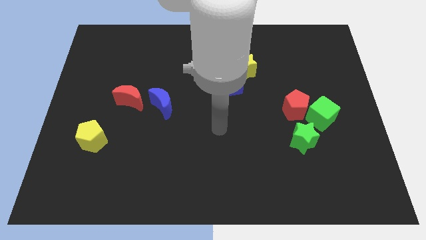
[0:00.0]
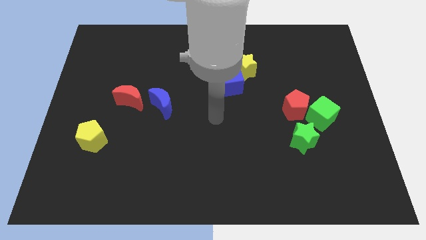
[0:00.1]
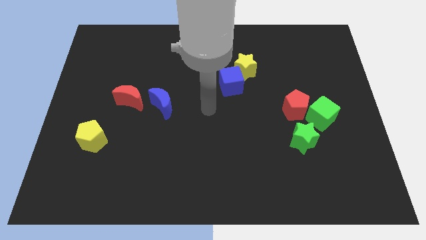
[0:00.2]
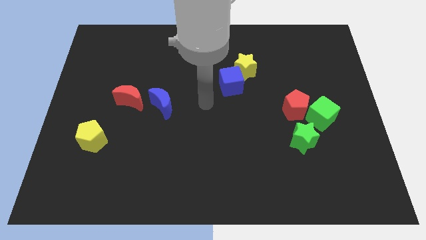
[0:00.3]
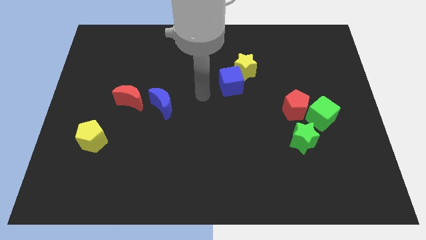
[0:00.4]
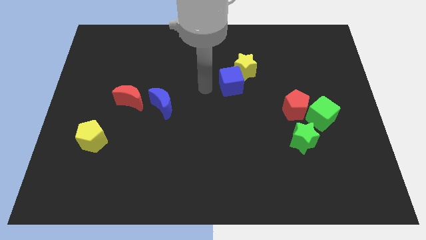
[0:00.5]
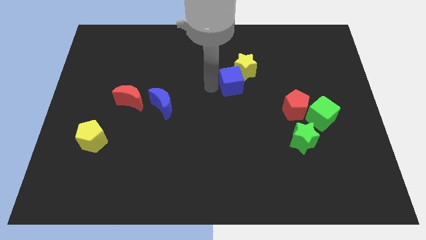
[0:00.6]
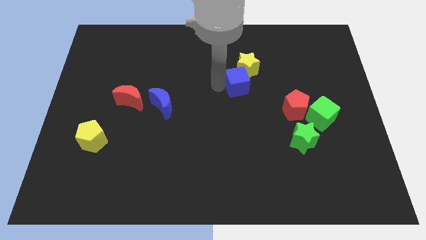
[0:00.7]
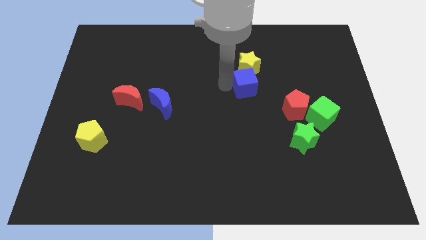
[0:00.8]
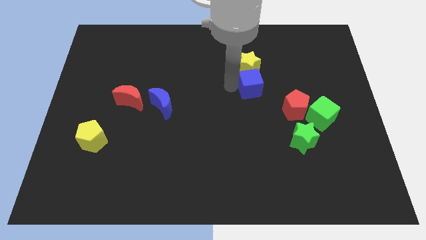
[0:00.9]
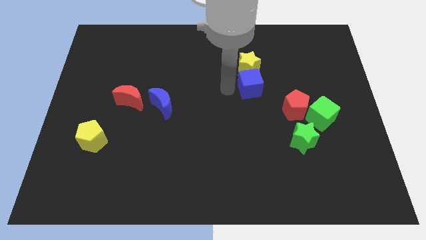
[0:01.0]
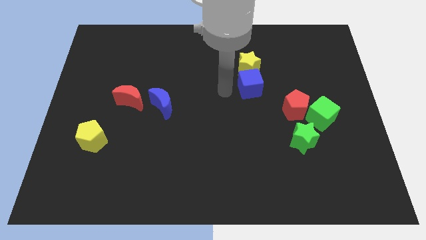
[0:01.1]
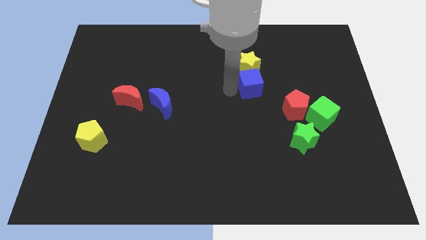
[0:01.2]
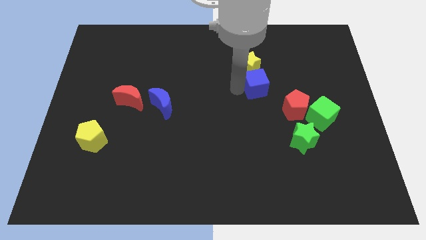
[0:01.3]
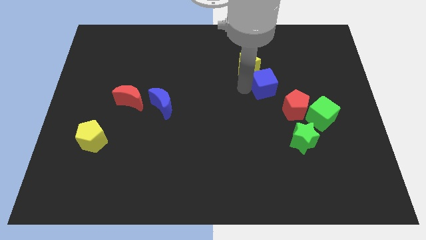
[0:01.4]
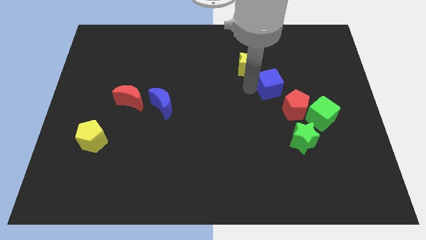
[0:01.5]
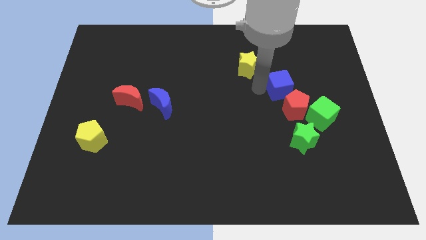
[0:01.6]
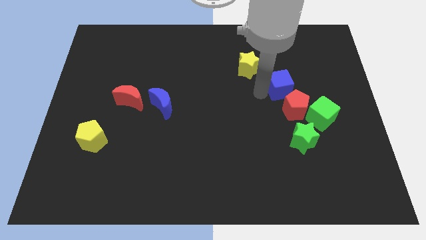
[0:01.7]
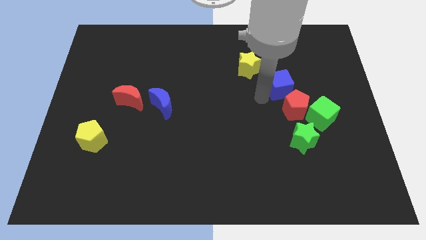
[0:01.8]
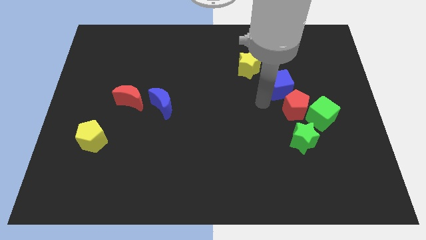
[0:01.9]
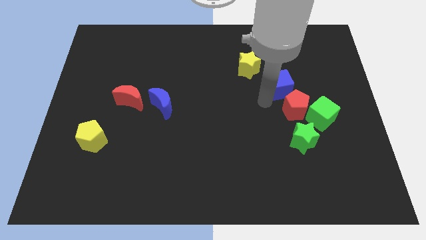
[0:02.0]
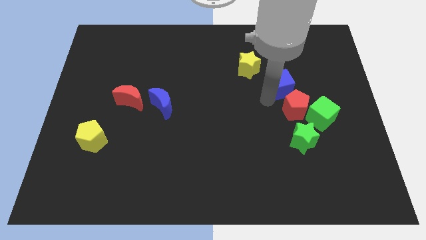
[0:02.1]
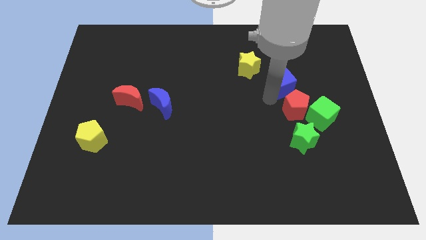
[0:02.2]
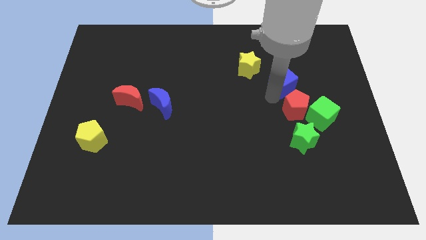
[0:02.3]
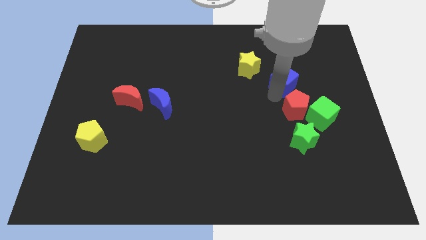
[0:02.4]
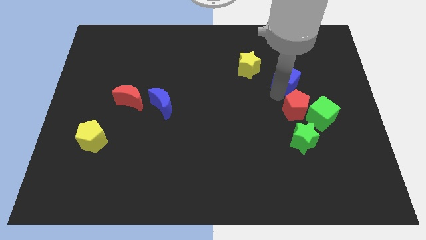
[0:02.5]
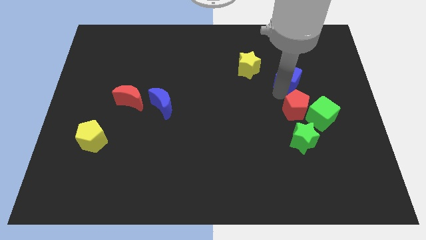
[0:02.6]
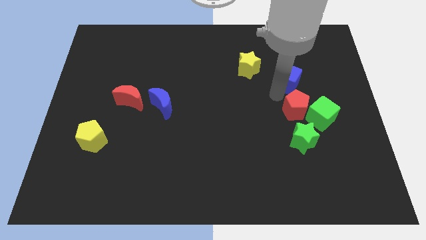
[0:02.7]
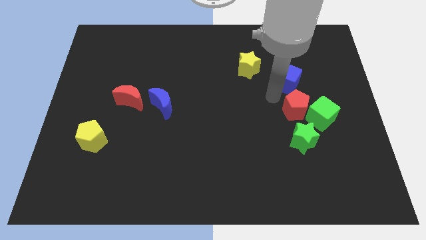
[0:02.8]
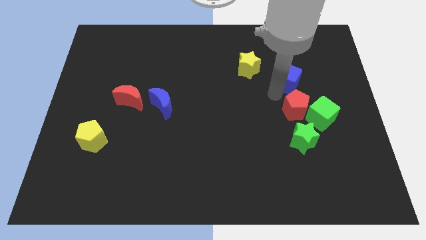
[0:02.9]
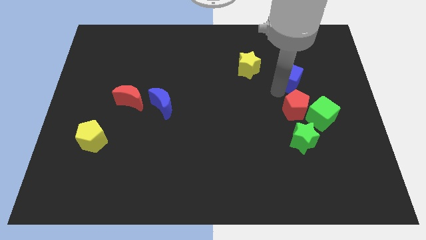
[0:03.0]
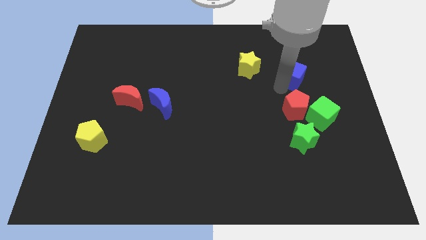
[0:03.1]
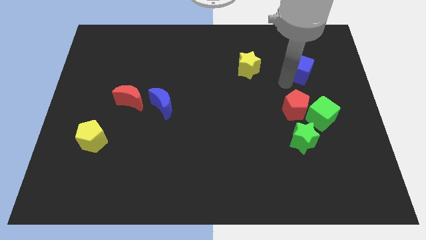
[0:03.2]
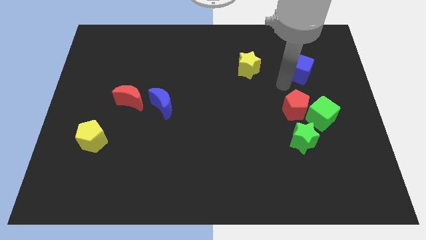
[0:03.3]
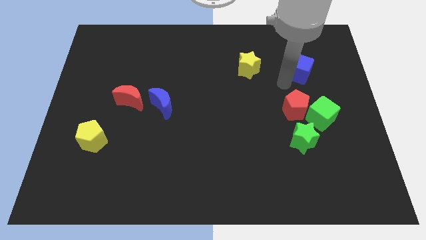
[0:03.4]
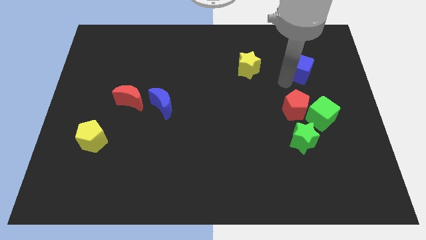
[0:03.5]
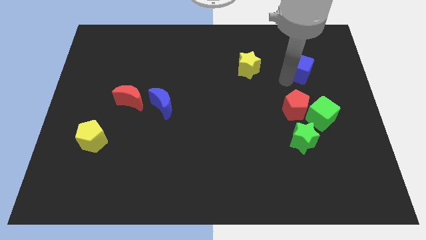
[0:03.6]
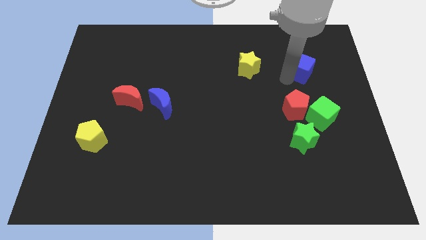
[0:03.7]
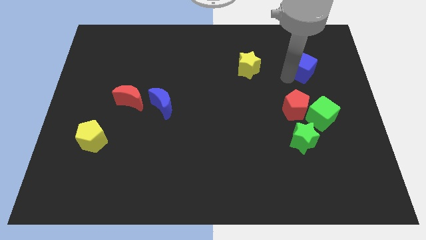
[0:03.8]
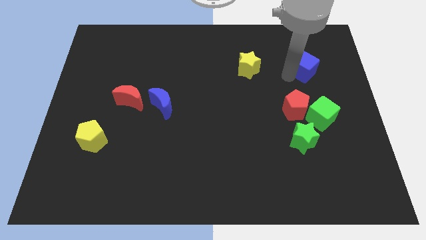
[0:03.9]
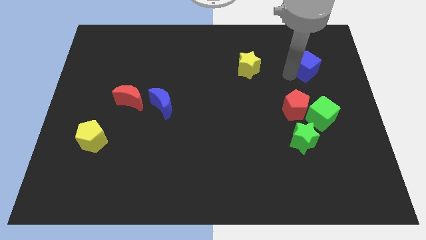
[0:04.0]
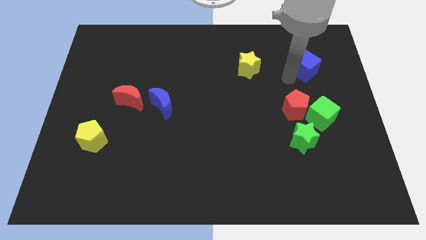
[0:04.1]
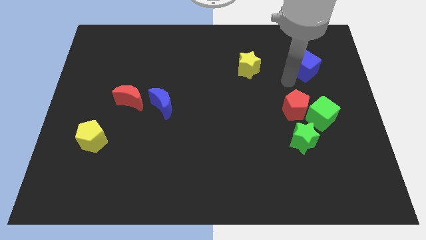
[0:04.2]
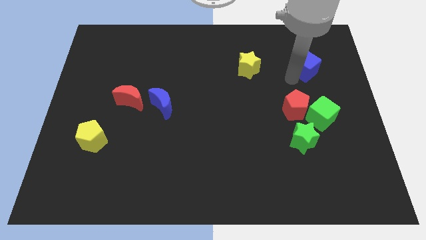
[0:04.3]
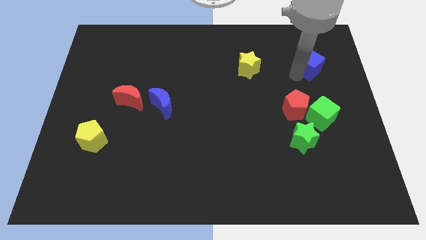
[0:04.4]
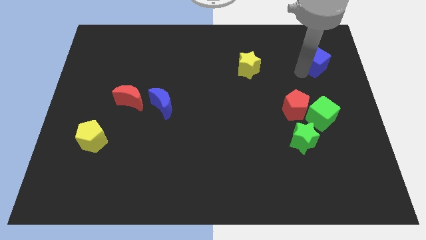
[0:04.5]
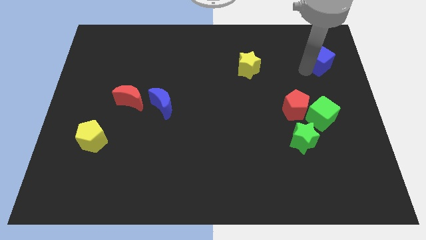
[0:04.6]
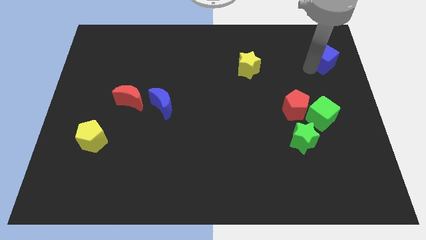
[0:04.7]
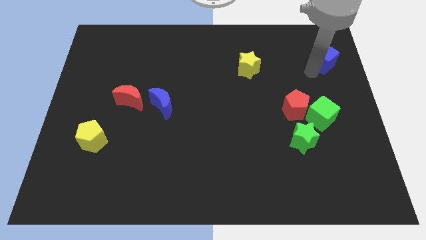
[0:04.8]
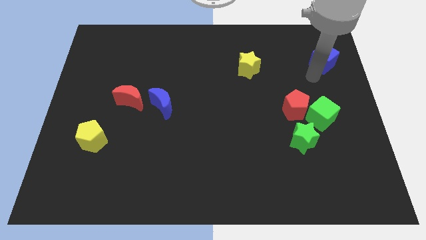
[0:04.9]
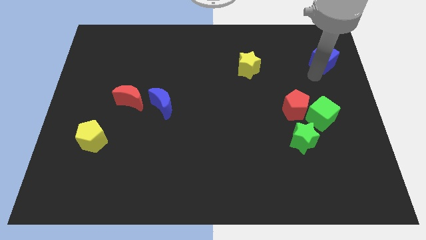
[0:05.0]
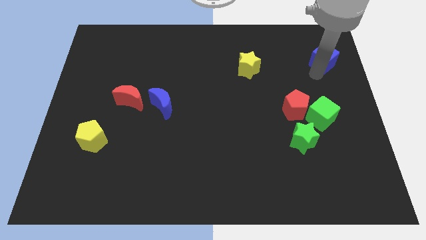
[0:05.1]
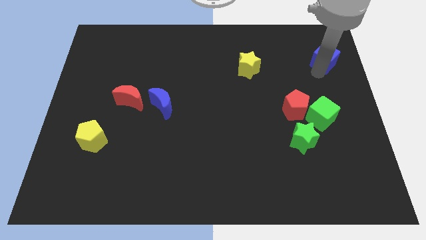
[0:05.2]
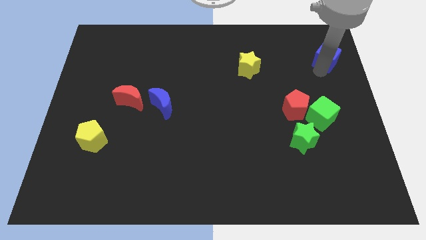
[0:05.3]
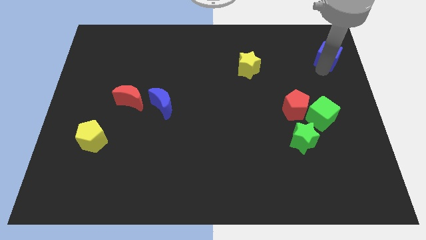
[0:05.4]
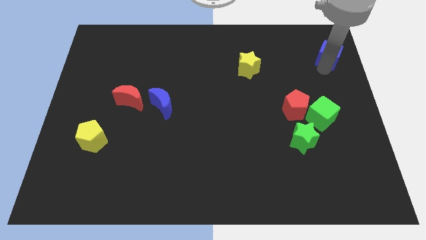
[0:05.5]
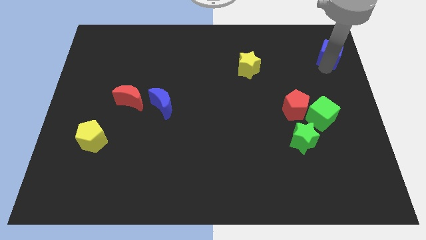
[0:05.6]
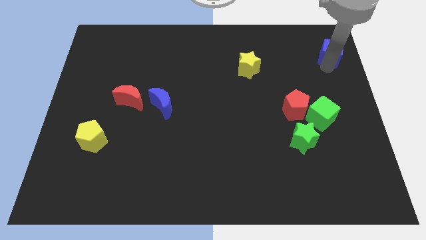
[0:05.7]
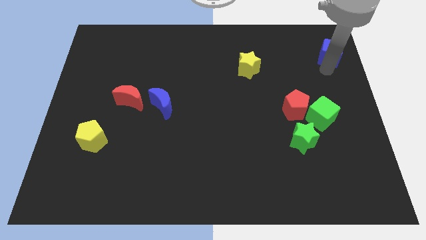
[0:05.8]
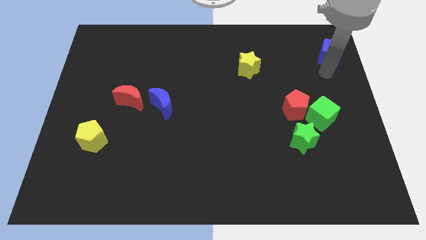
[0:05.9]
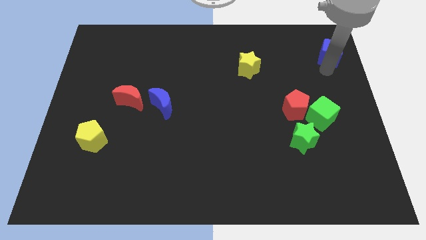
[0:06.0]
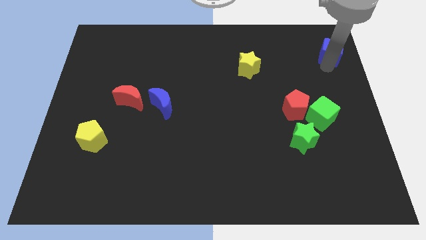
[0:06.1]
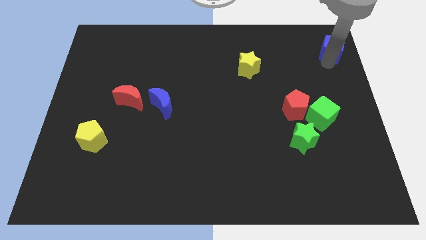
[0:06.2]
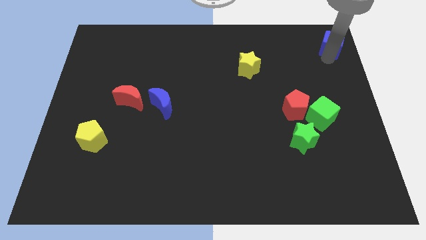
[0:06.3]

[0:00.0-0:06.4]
slide the blue cube to the top right

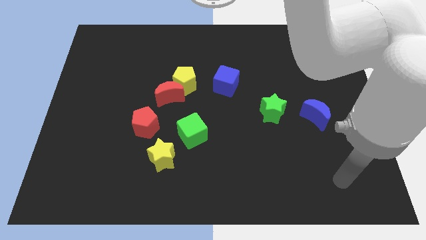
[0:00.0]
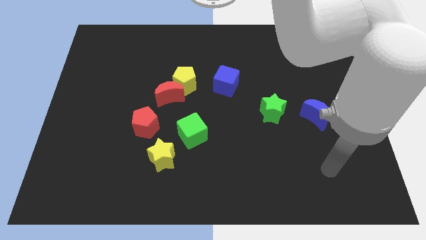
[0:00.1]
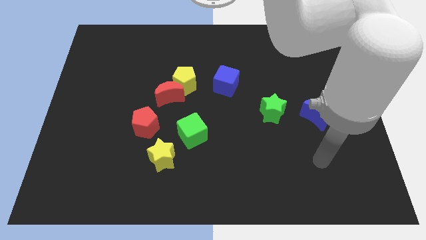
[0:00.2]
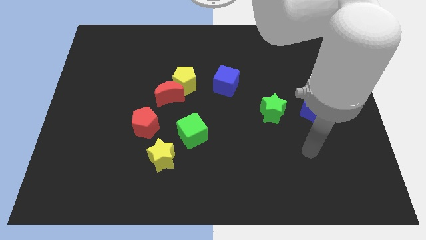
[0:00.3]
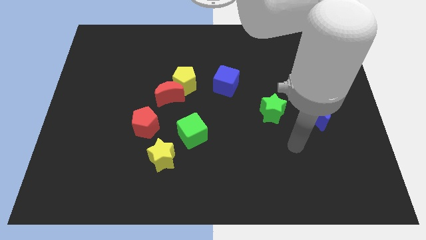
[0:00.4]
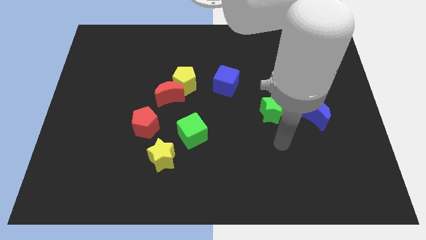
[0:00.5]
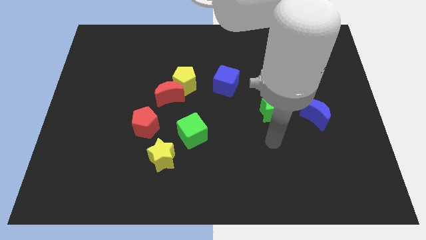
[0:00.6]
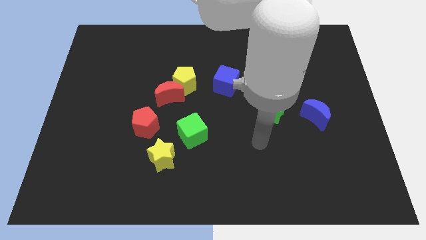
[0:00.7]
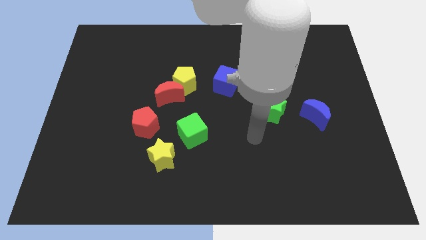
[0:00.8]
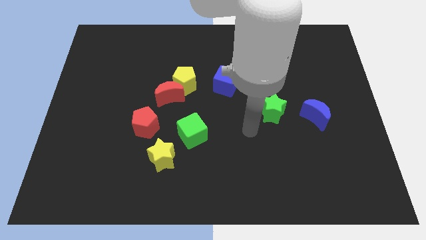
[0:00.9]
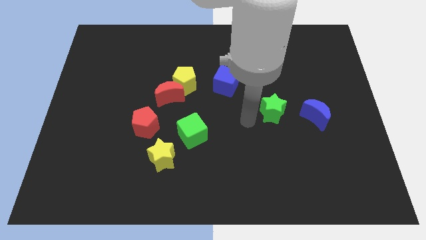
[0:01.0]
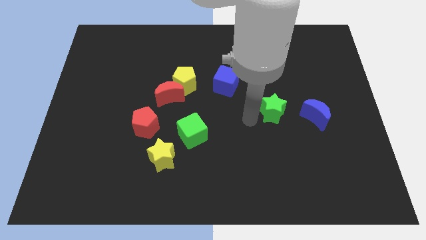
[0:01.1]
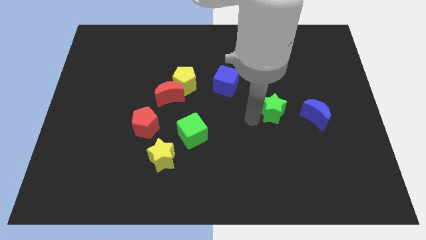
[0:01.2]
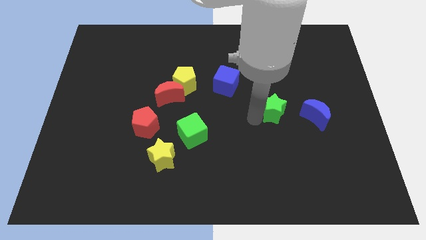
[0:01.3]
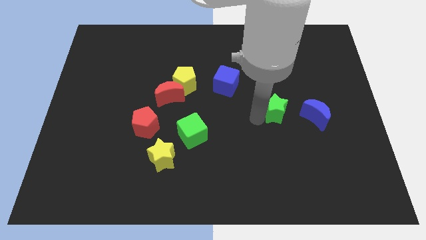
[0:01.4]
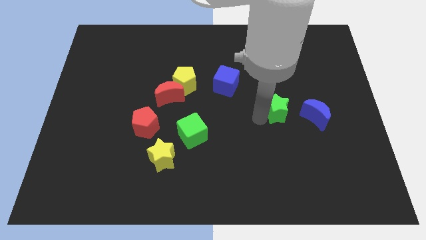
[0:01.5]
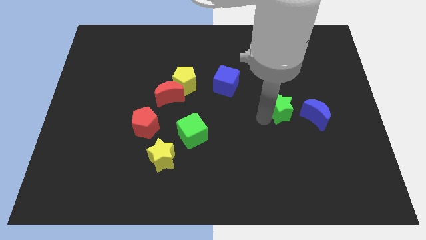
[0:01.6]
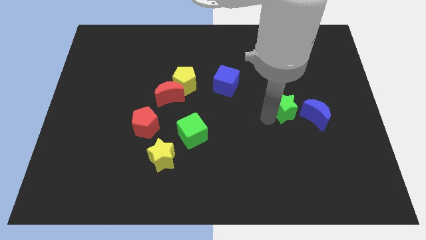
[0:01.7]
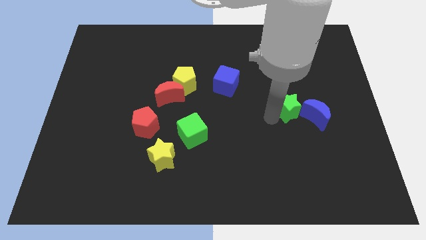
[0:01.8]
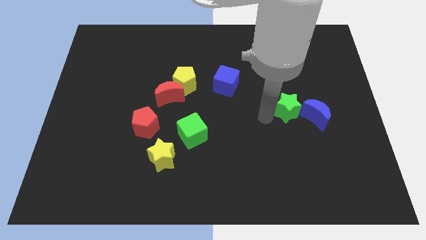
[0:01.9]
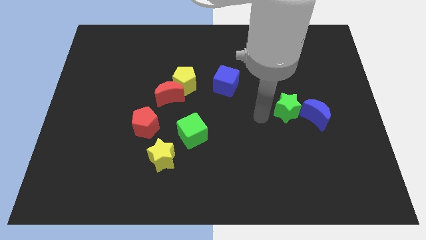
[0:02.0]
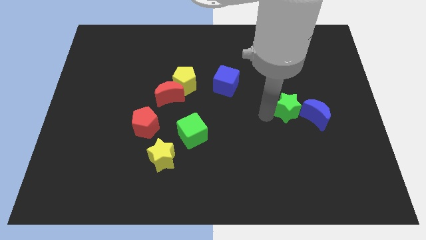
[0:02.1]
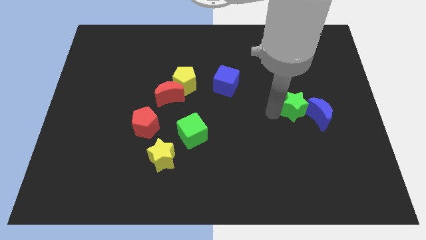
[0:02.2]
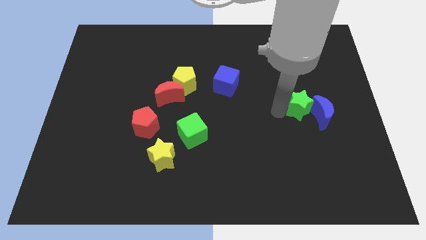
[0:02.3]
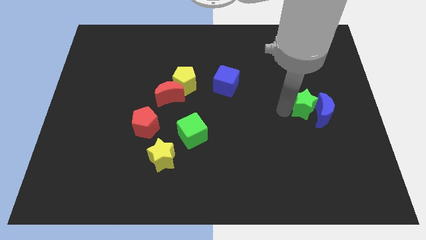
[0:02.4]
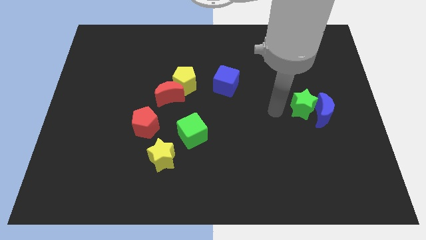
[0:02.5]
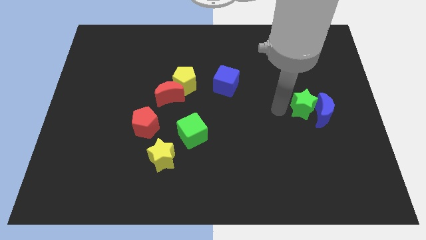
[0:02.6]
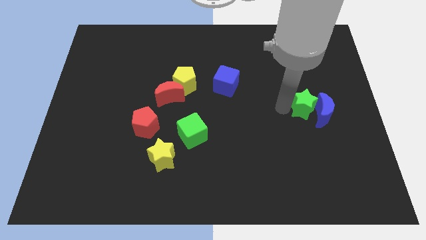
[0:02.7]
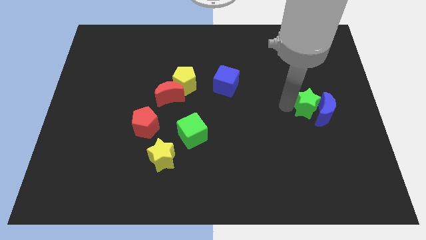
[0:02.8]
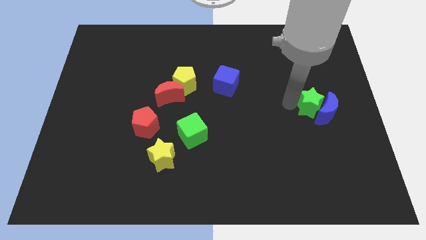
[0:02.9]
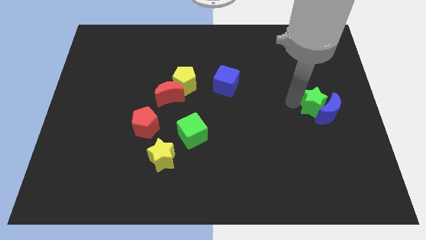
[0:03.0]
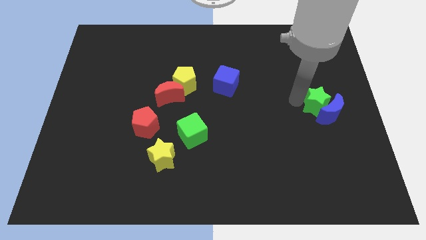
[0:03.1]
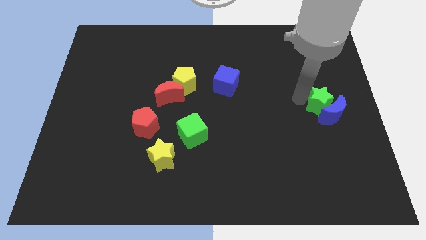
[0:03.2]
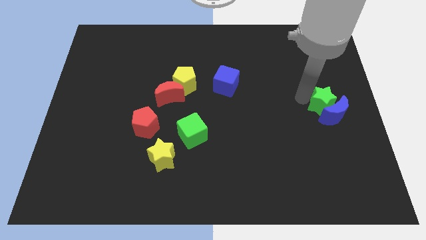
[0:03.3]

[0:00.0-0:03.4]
put the green star to the center right
